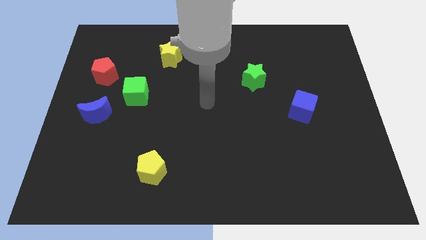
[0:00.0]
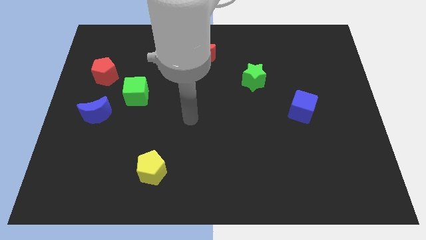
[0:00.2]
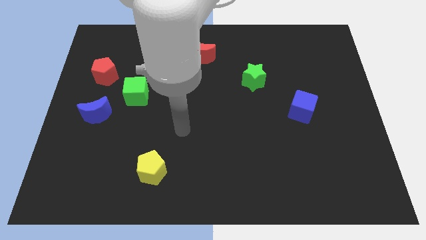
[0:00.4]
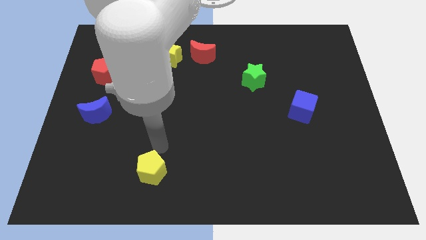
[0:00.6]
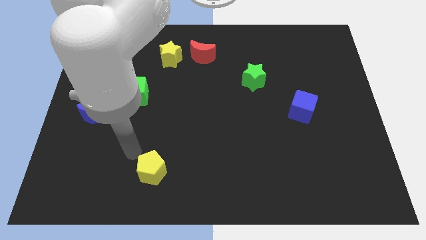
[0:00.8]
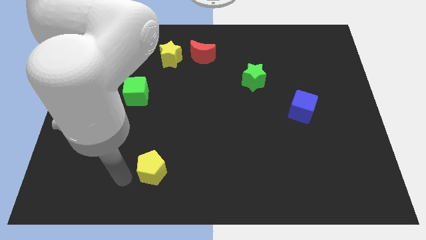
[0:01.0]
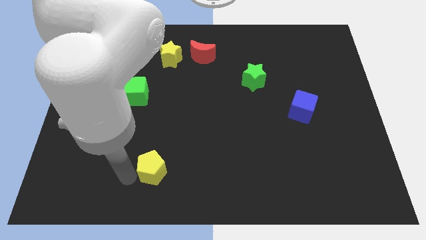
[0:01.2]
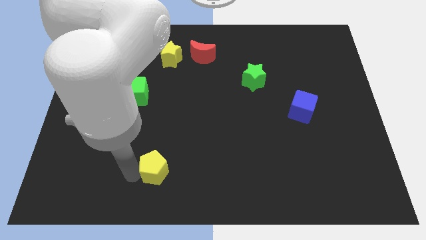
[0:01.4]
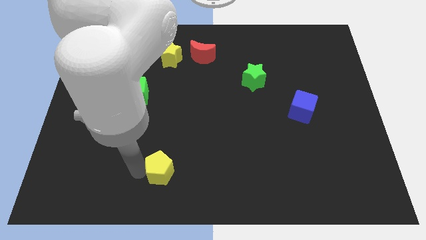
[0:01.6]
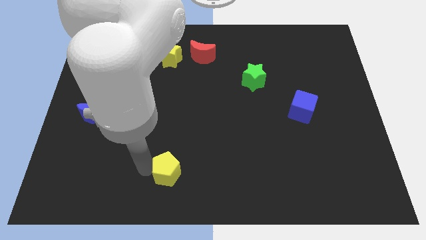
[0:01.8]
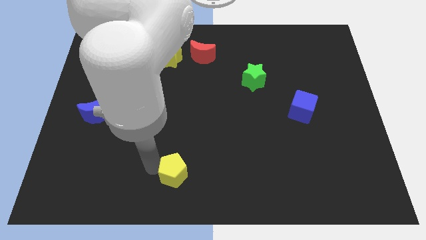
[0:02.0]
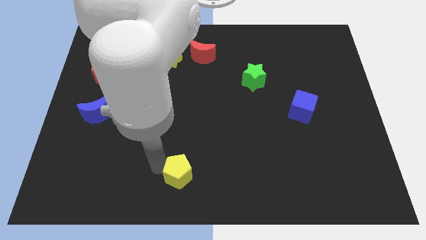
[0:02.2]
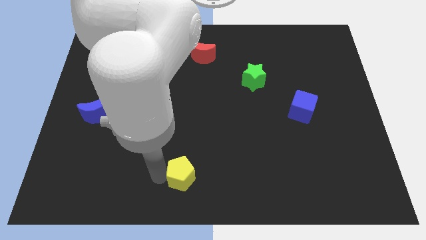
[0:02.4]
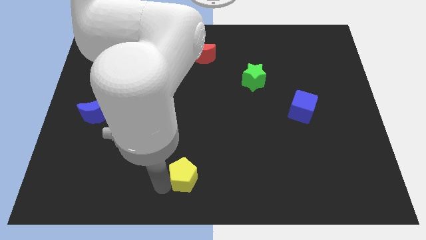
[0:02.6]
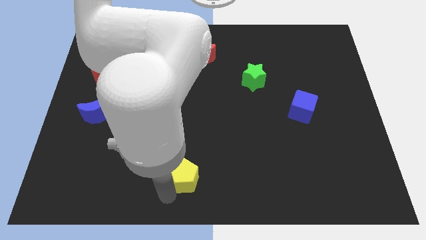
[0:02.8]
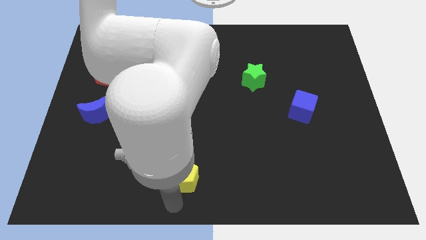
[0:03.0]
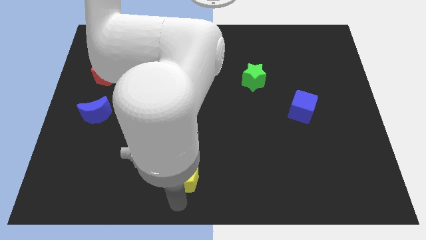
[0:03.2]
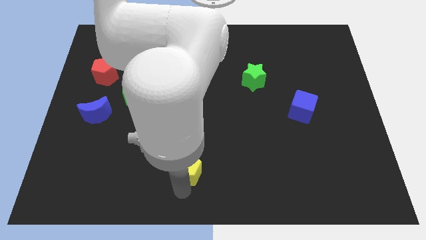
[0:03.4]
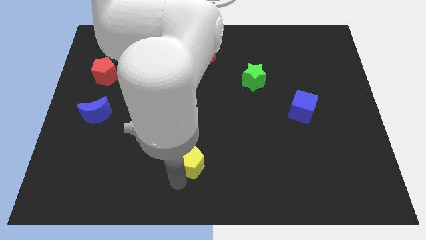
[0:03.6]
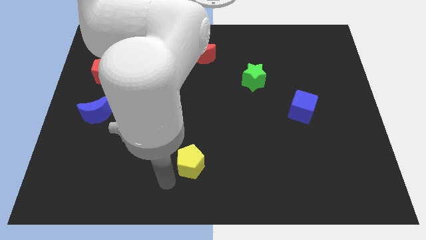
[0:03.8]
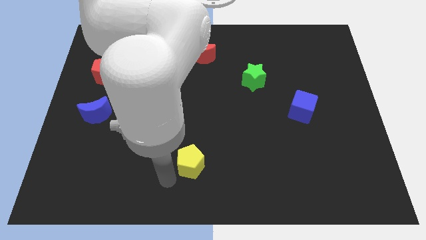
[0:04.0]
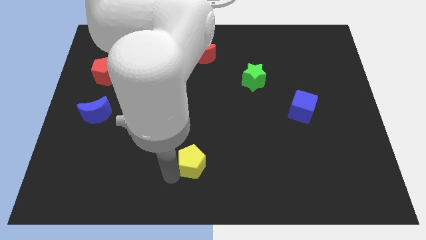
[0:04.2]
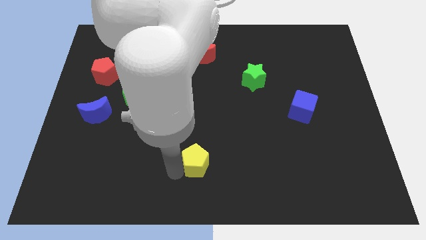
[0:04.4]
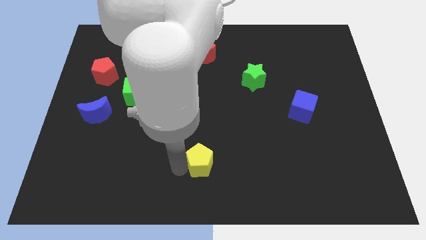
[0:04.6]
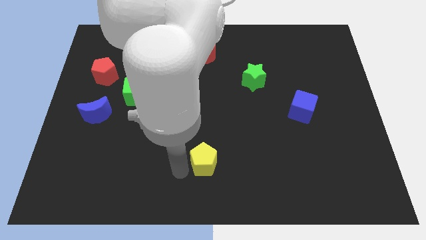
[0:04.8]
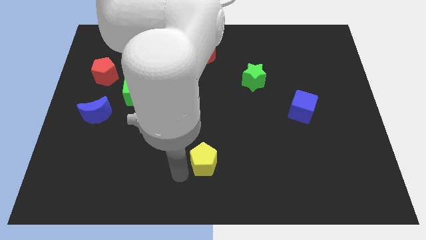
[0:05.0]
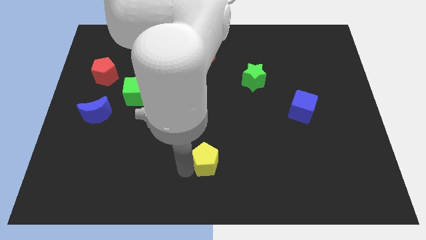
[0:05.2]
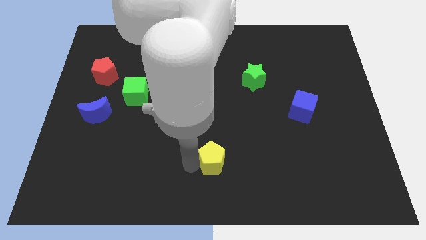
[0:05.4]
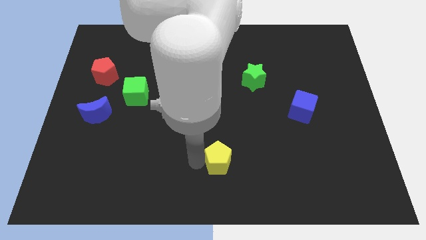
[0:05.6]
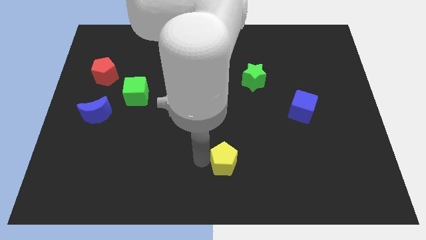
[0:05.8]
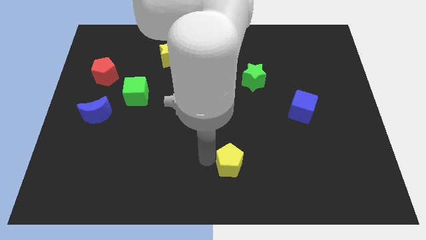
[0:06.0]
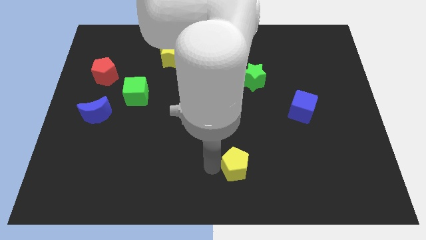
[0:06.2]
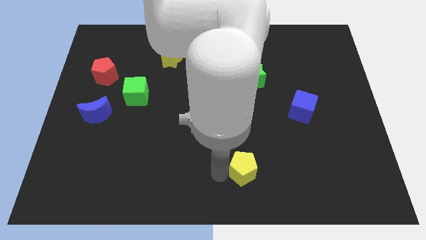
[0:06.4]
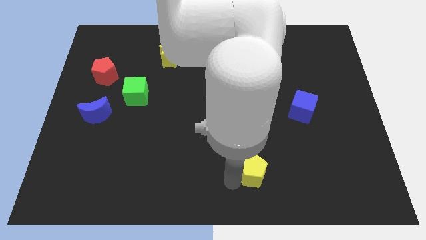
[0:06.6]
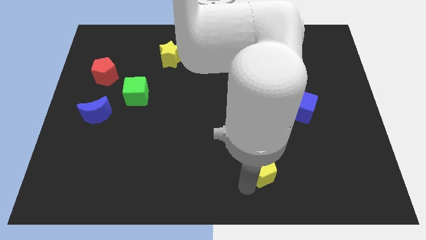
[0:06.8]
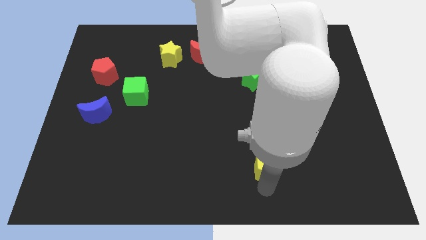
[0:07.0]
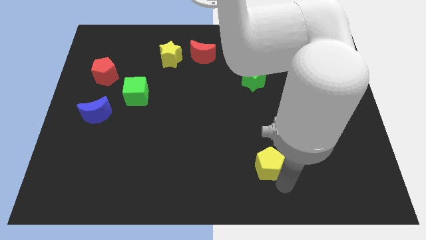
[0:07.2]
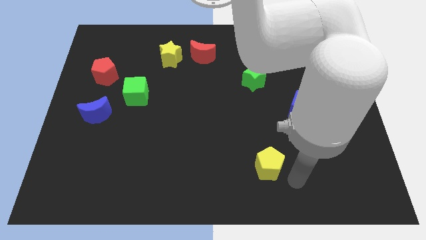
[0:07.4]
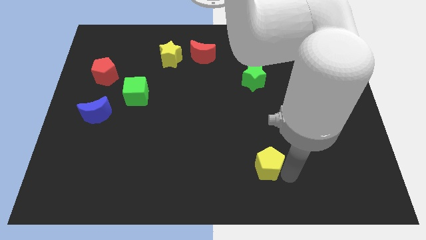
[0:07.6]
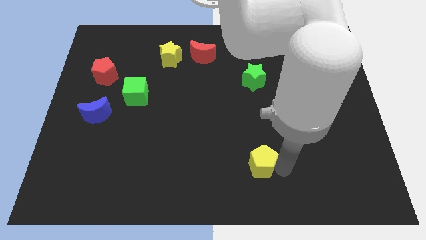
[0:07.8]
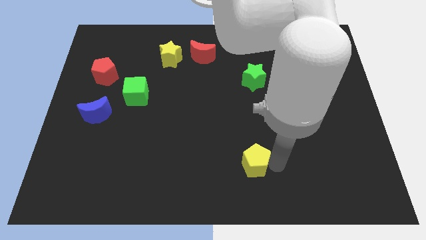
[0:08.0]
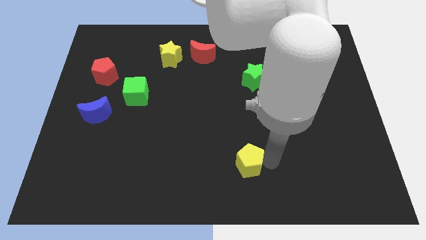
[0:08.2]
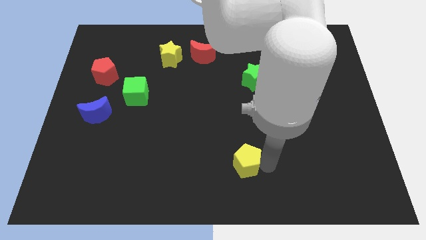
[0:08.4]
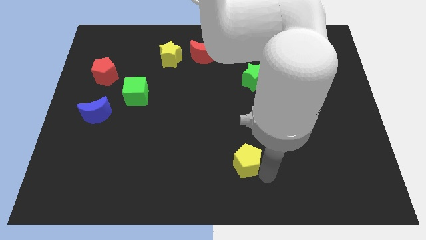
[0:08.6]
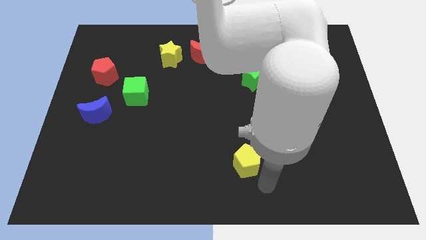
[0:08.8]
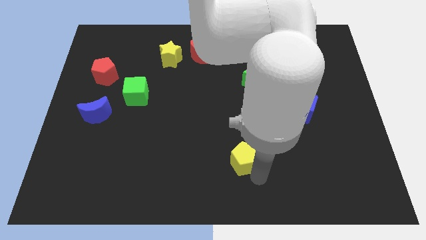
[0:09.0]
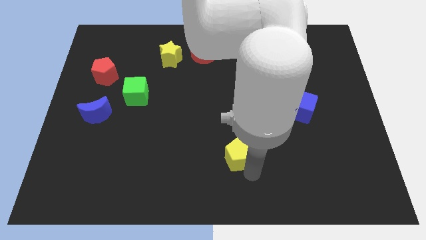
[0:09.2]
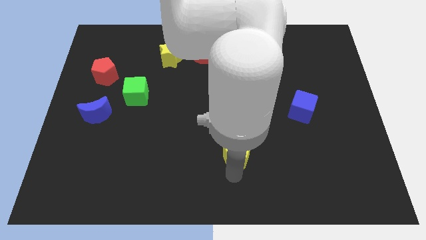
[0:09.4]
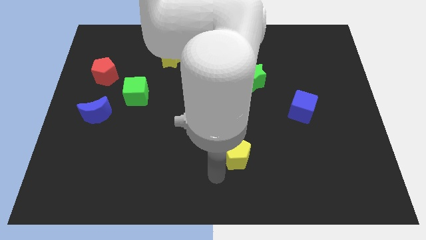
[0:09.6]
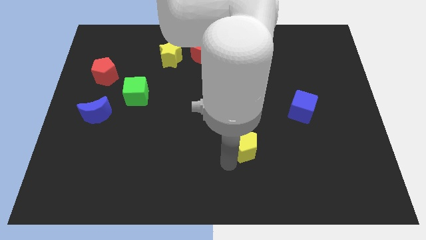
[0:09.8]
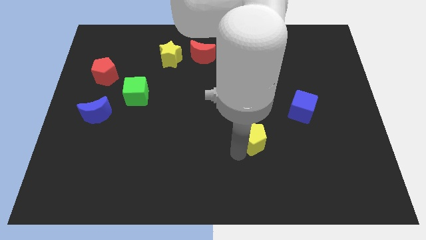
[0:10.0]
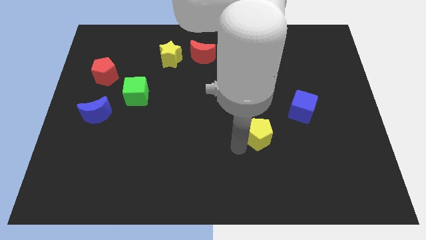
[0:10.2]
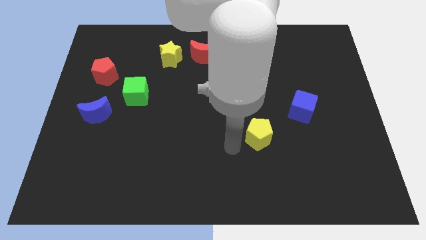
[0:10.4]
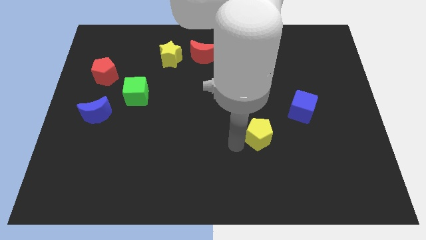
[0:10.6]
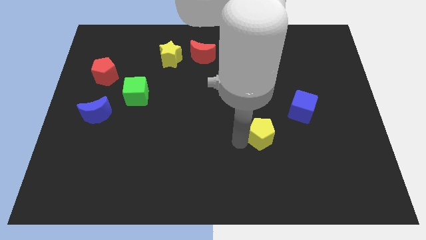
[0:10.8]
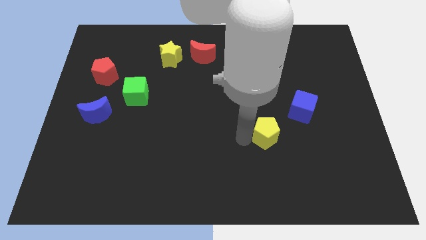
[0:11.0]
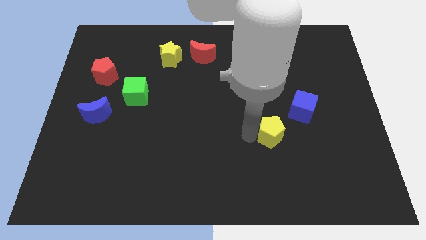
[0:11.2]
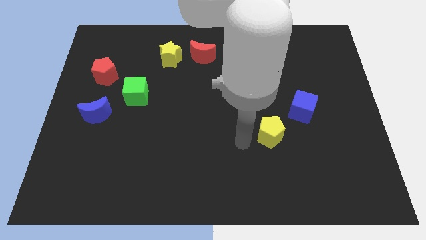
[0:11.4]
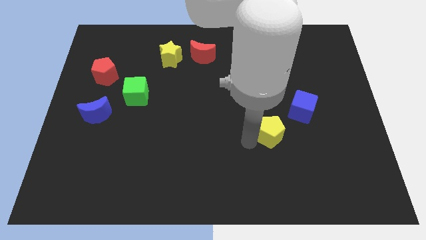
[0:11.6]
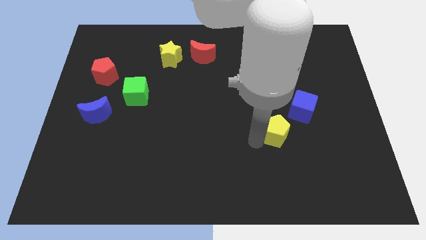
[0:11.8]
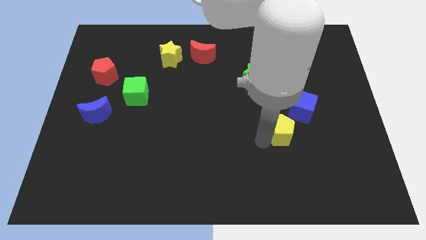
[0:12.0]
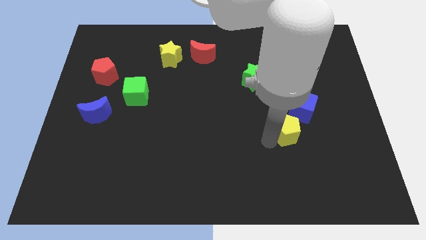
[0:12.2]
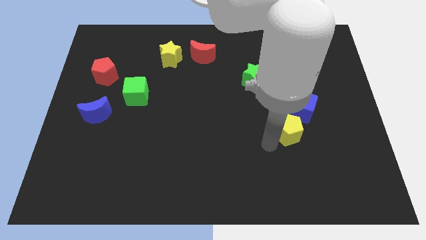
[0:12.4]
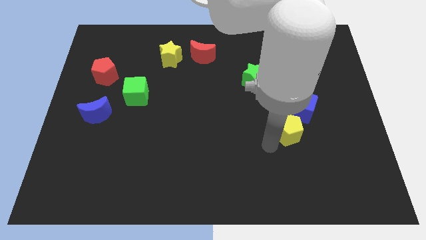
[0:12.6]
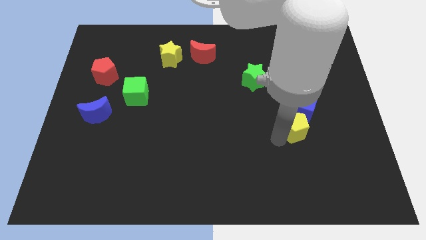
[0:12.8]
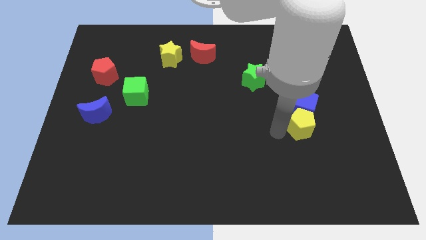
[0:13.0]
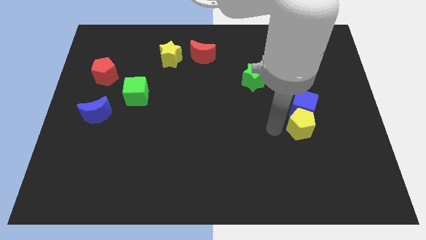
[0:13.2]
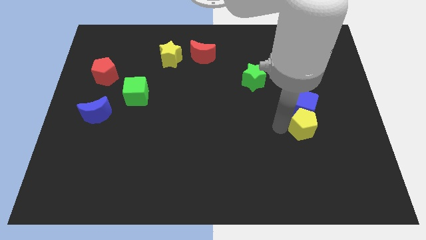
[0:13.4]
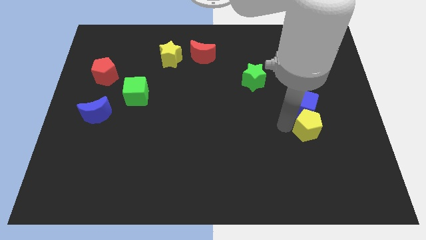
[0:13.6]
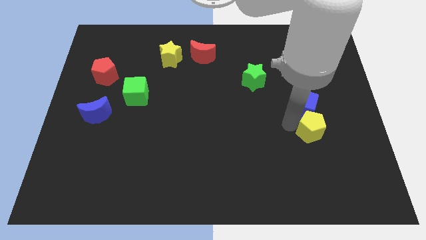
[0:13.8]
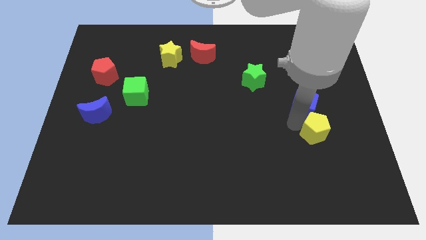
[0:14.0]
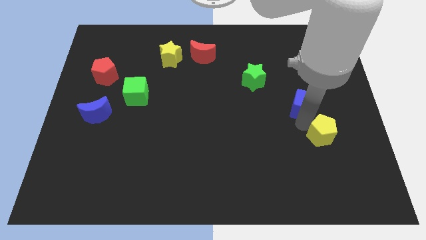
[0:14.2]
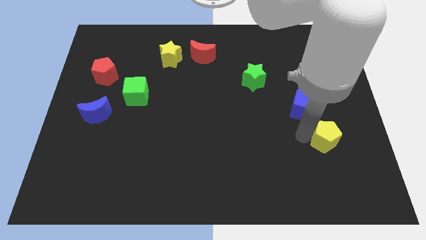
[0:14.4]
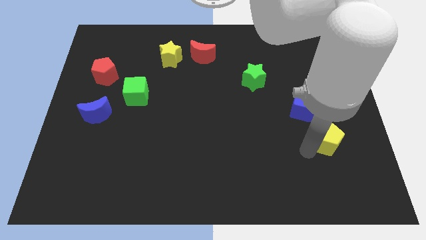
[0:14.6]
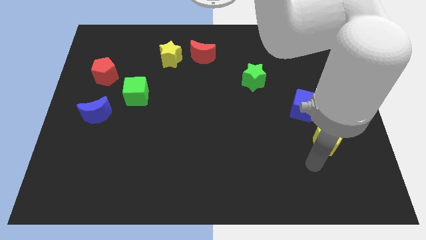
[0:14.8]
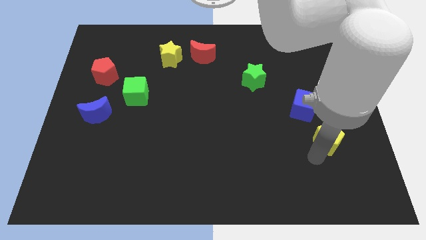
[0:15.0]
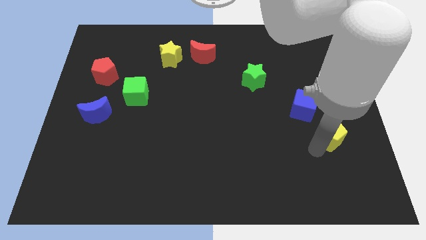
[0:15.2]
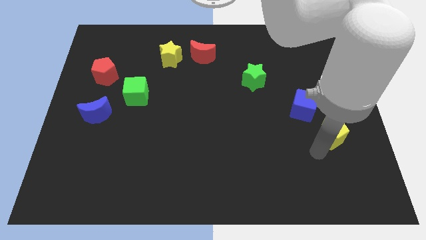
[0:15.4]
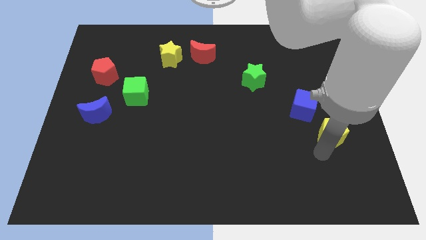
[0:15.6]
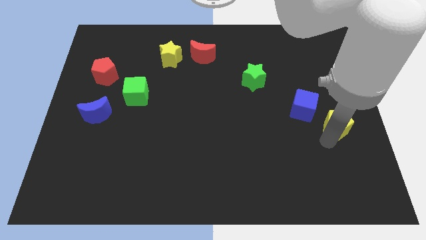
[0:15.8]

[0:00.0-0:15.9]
move the yellow pentagon to the right side of the board
